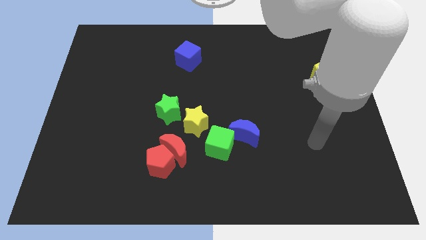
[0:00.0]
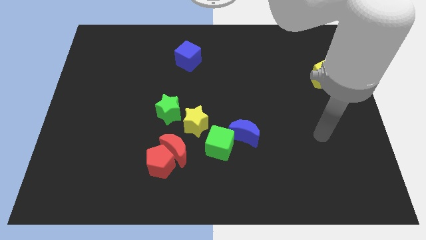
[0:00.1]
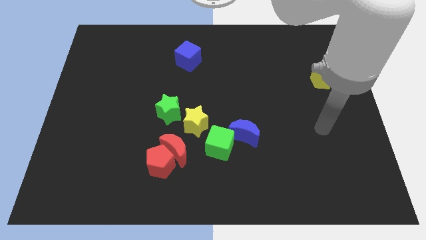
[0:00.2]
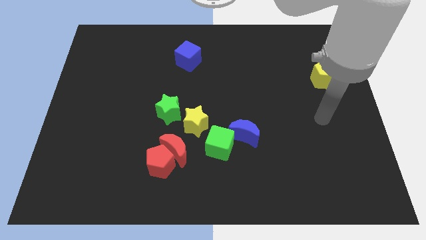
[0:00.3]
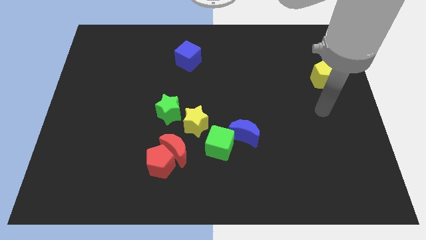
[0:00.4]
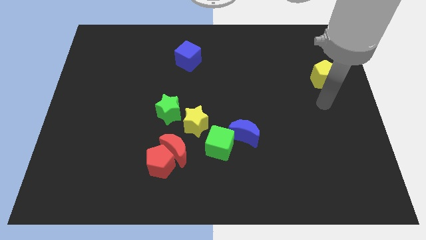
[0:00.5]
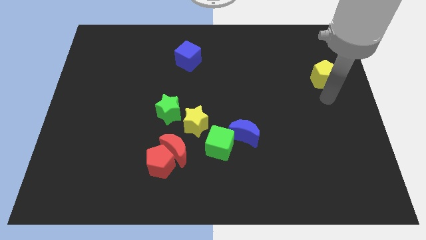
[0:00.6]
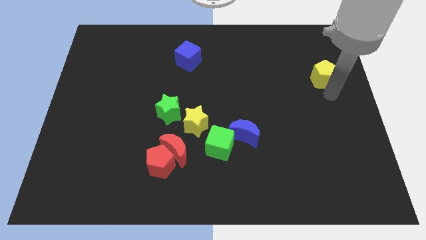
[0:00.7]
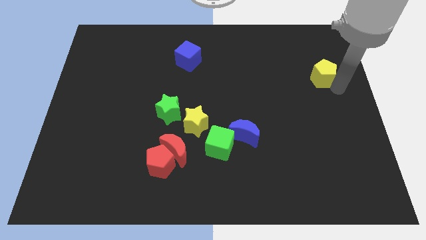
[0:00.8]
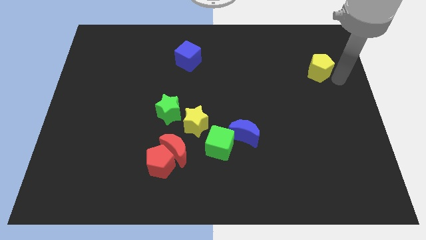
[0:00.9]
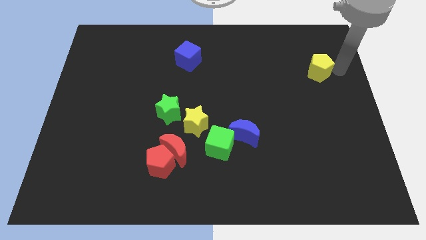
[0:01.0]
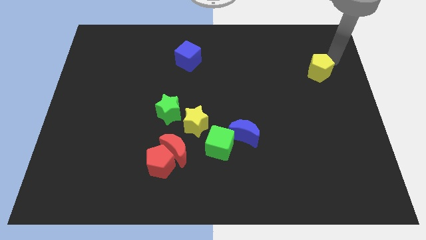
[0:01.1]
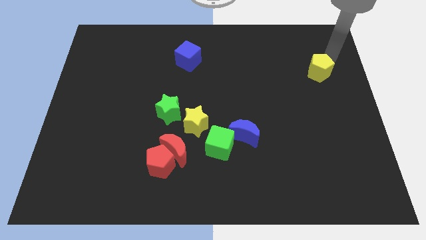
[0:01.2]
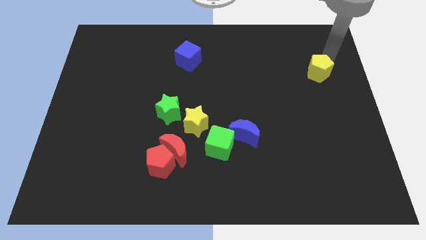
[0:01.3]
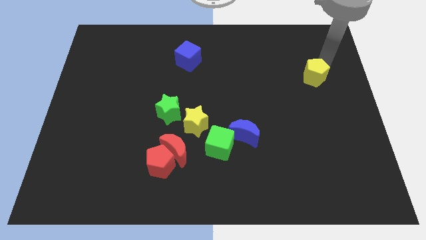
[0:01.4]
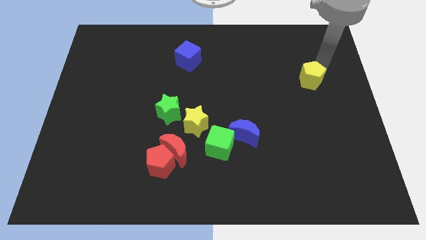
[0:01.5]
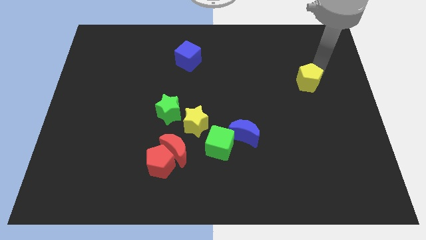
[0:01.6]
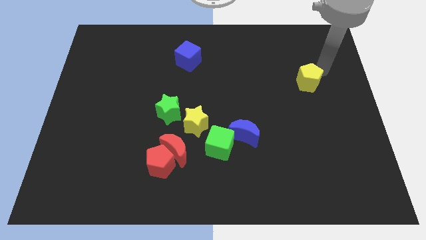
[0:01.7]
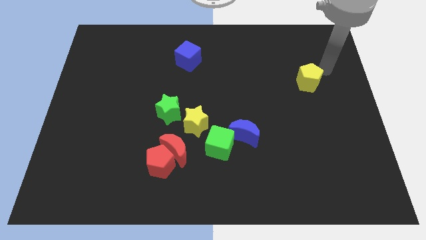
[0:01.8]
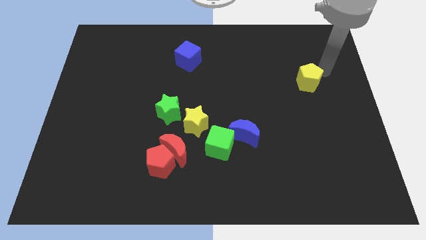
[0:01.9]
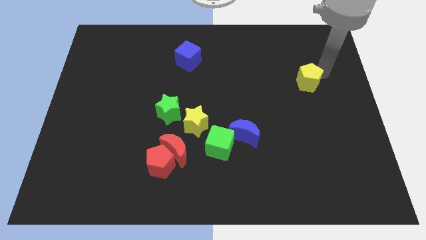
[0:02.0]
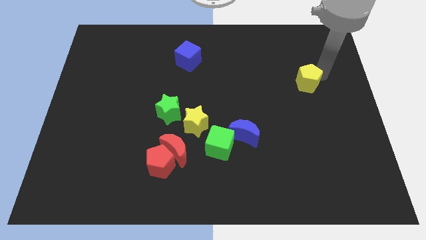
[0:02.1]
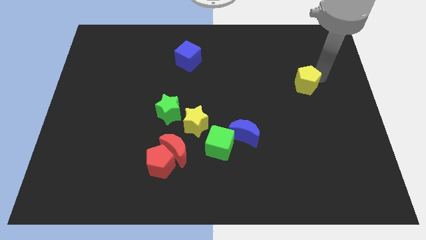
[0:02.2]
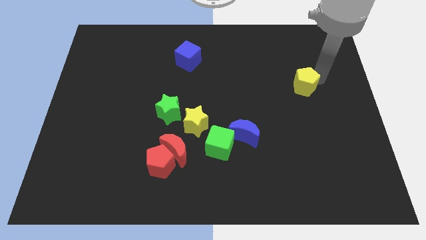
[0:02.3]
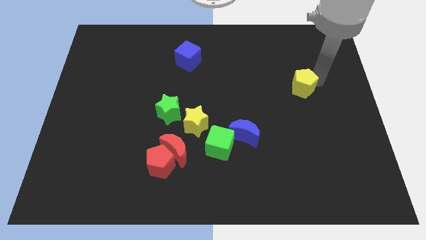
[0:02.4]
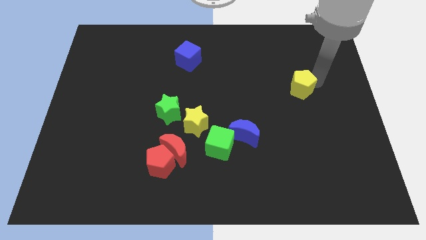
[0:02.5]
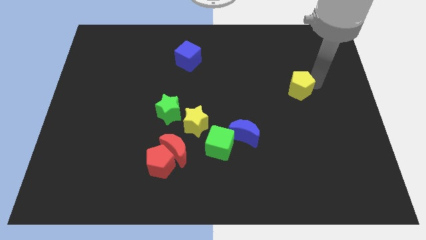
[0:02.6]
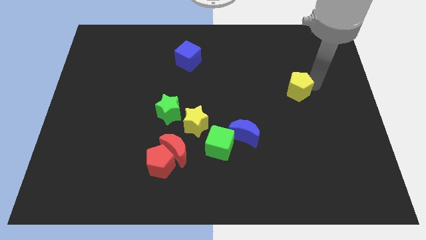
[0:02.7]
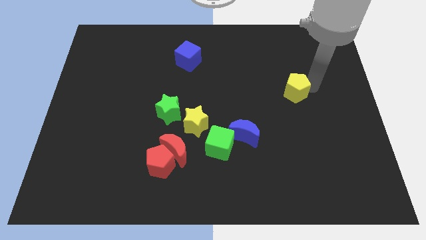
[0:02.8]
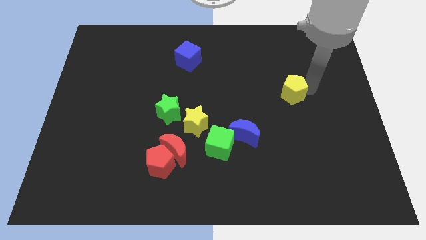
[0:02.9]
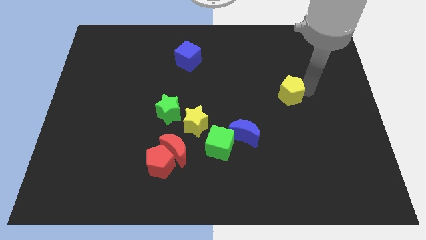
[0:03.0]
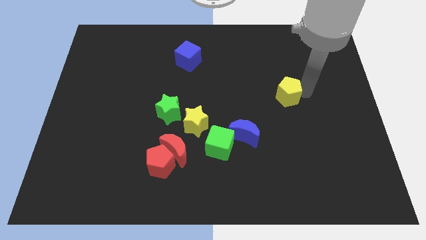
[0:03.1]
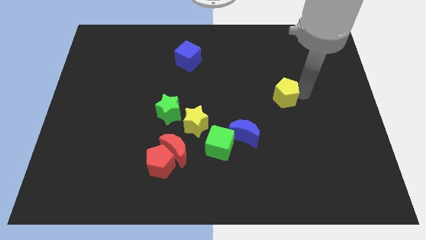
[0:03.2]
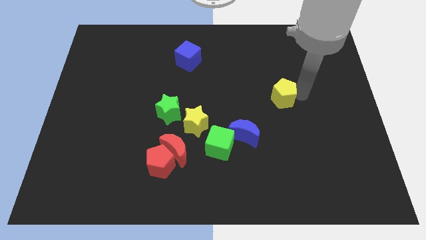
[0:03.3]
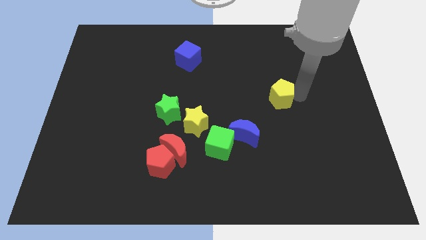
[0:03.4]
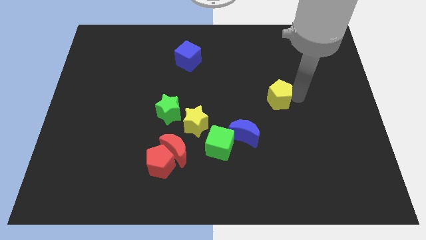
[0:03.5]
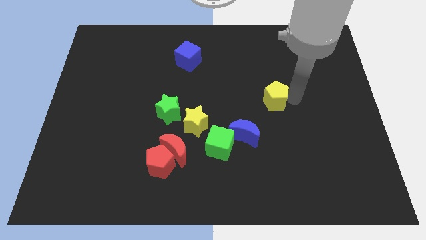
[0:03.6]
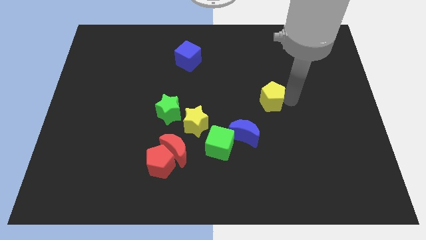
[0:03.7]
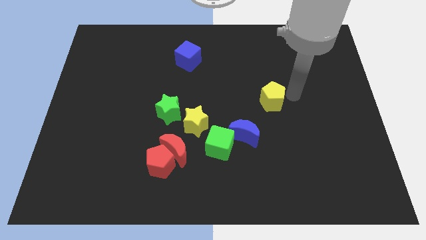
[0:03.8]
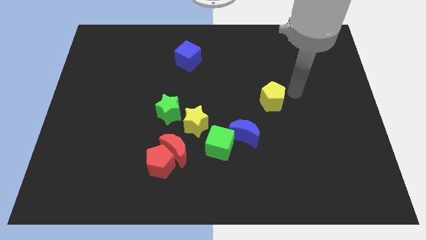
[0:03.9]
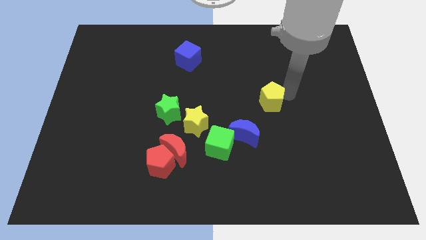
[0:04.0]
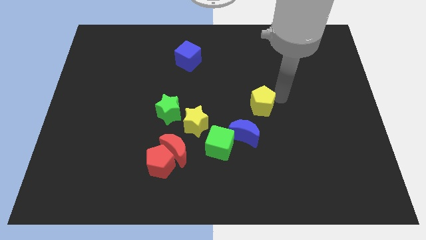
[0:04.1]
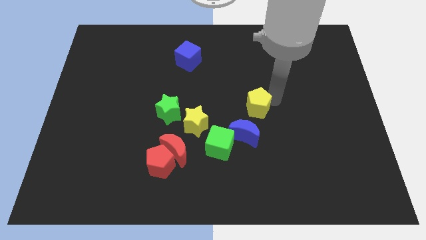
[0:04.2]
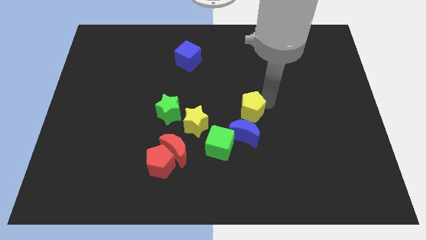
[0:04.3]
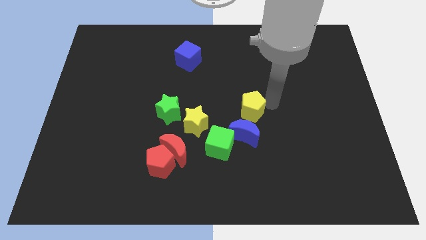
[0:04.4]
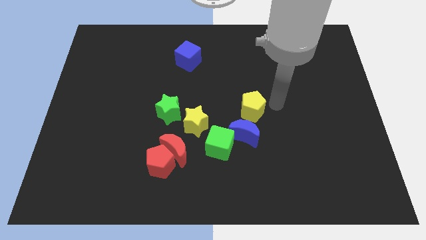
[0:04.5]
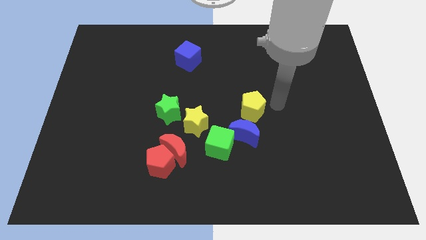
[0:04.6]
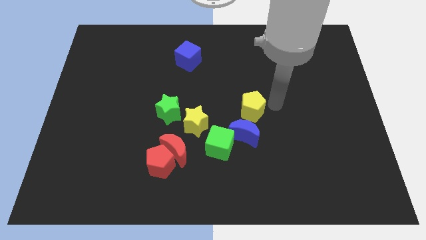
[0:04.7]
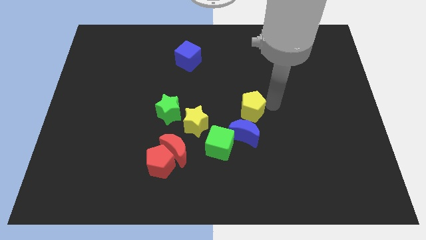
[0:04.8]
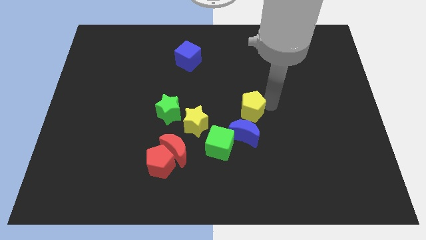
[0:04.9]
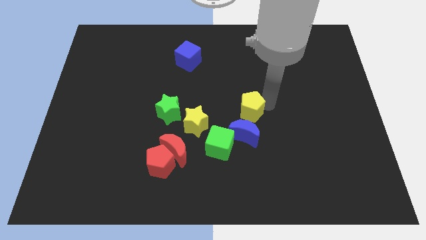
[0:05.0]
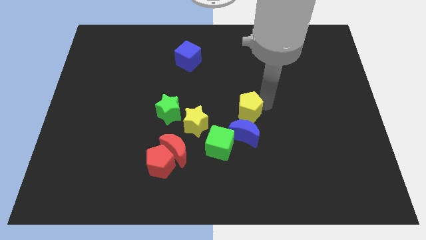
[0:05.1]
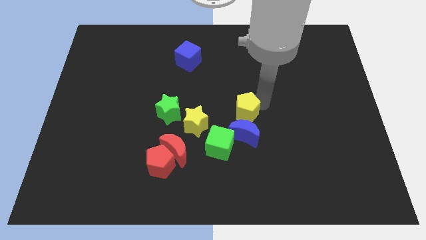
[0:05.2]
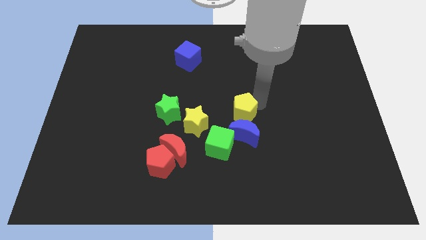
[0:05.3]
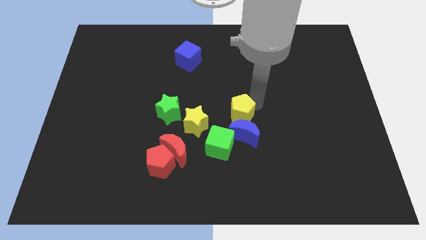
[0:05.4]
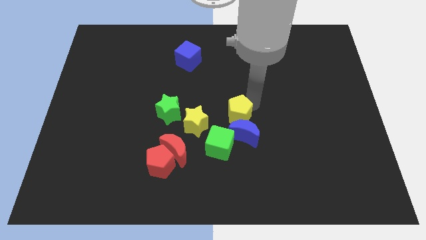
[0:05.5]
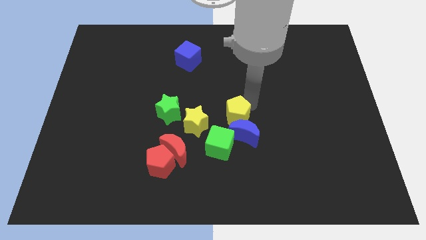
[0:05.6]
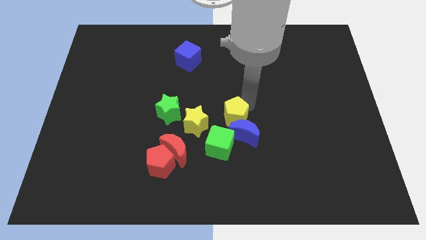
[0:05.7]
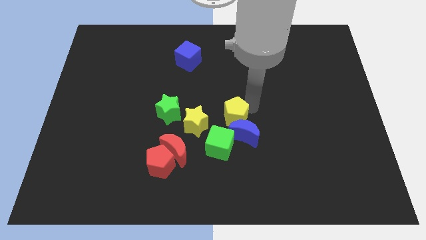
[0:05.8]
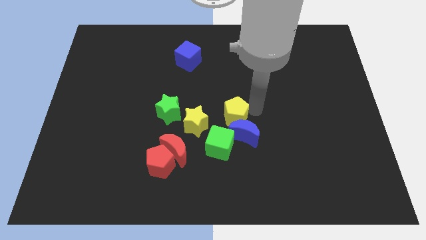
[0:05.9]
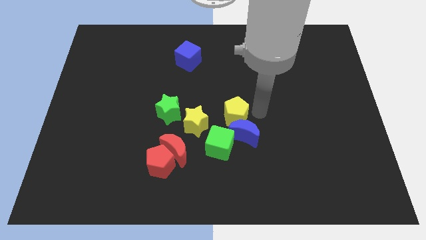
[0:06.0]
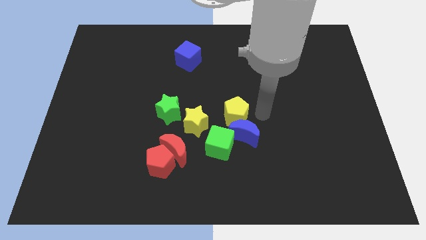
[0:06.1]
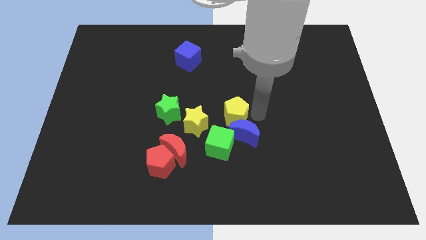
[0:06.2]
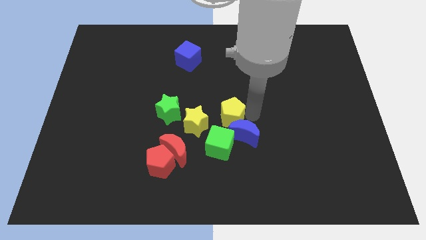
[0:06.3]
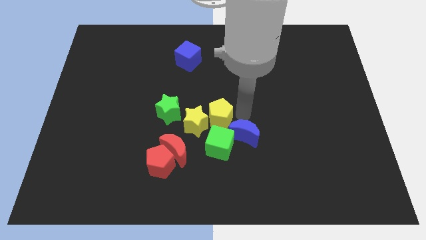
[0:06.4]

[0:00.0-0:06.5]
put the yellow pentagon next to the yellow star

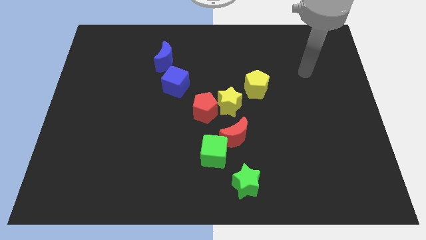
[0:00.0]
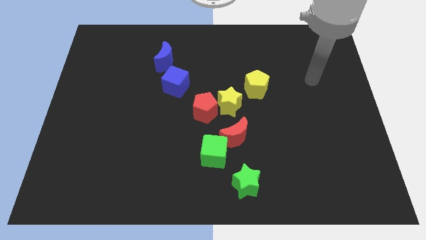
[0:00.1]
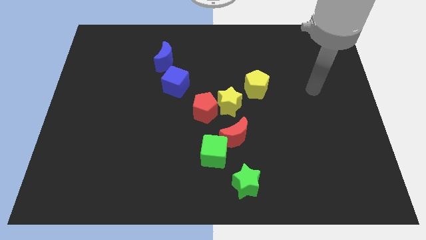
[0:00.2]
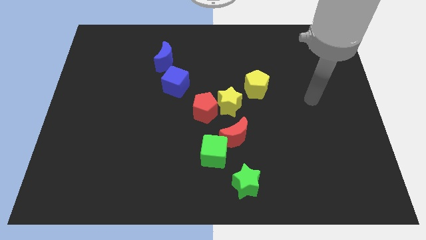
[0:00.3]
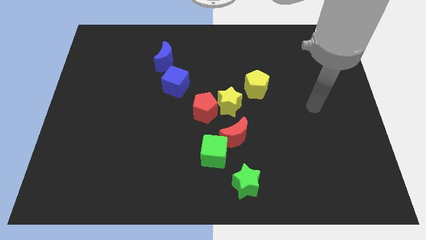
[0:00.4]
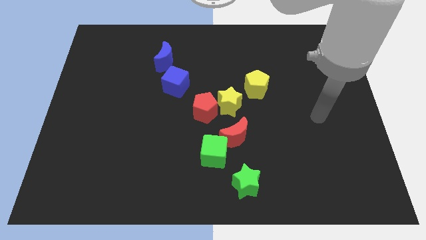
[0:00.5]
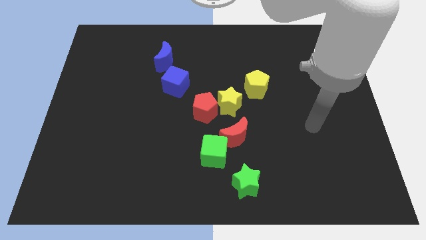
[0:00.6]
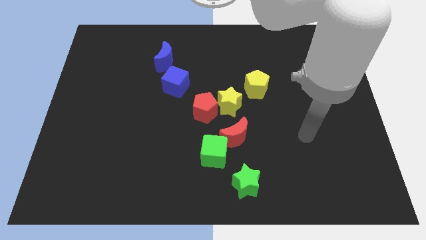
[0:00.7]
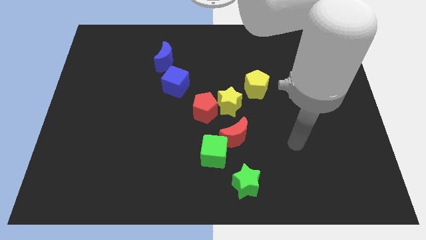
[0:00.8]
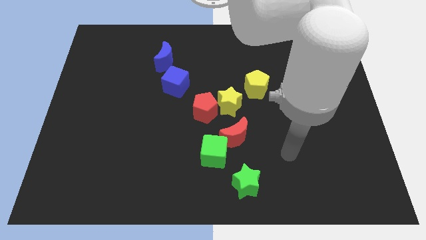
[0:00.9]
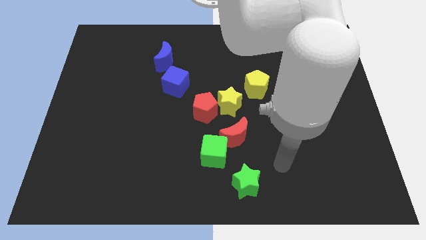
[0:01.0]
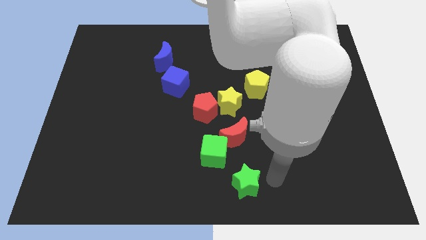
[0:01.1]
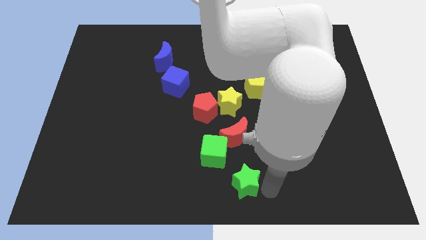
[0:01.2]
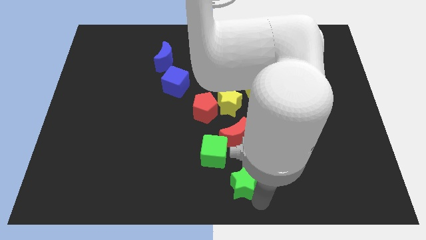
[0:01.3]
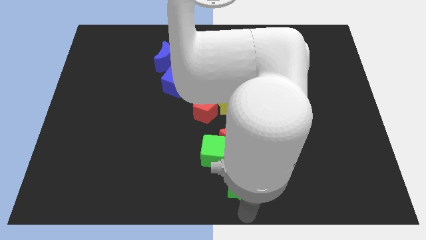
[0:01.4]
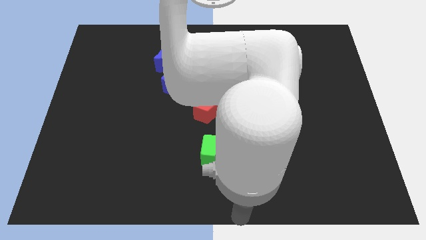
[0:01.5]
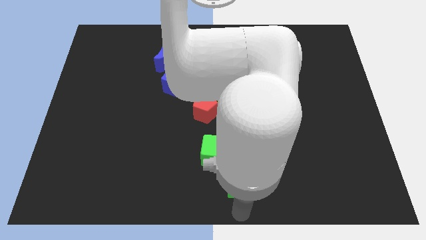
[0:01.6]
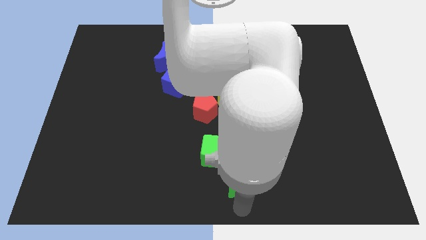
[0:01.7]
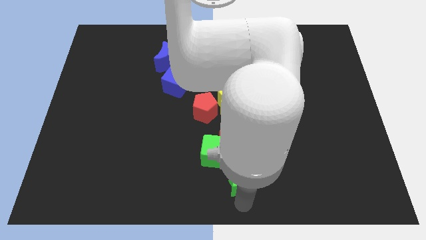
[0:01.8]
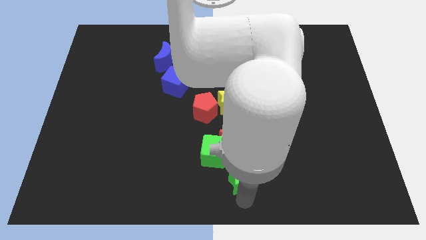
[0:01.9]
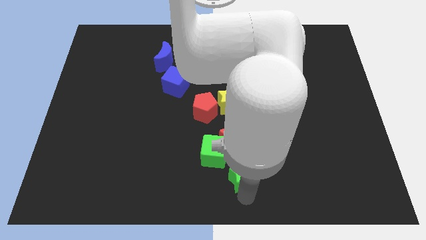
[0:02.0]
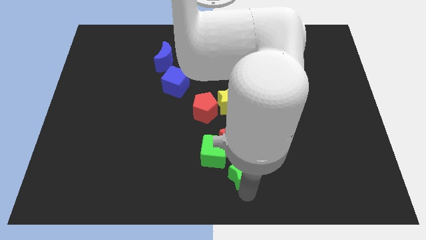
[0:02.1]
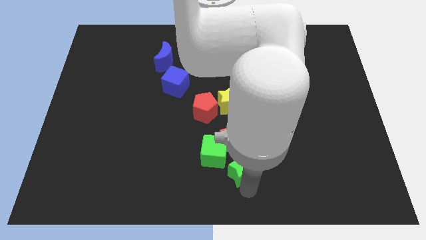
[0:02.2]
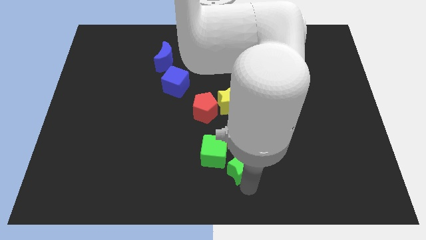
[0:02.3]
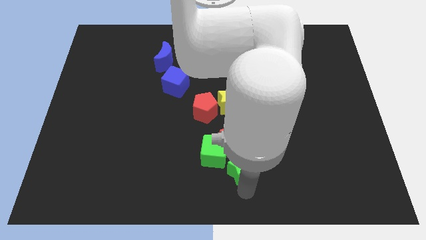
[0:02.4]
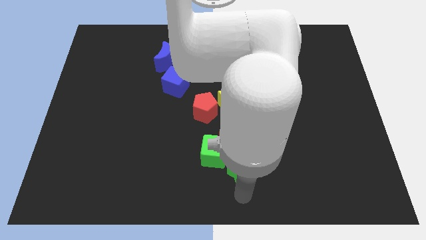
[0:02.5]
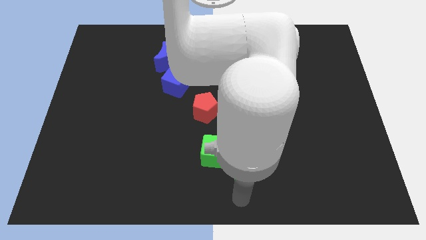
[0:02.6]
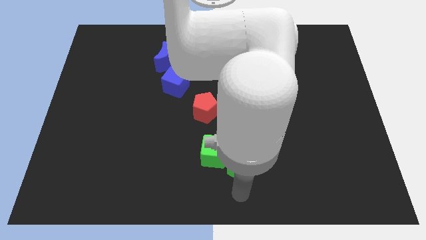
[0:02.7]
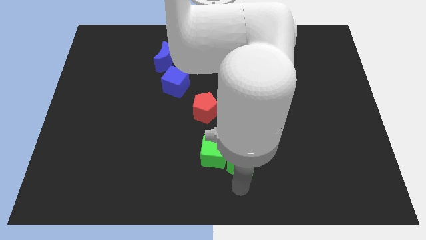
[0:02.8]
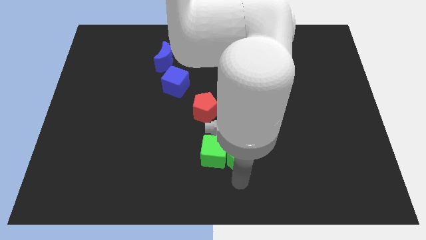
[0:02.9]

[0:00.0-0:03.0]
push the green star to the red moon
